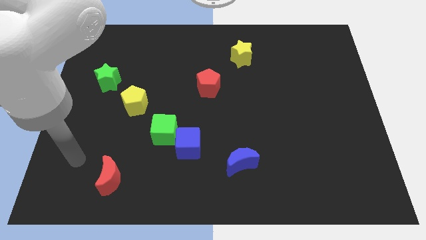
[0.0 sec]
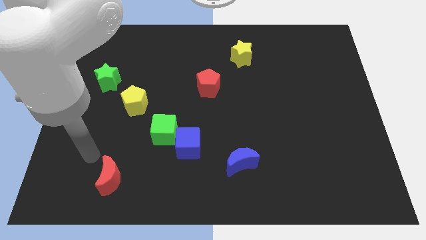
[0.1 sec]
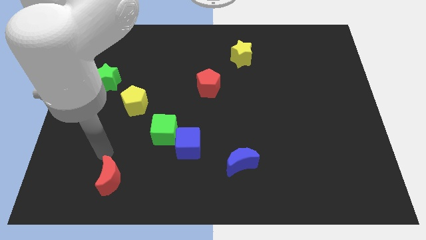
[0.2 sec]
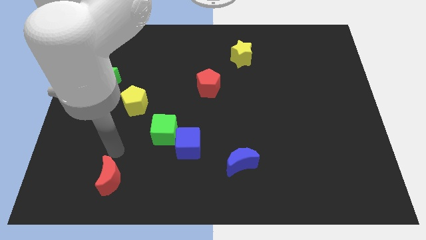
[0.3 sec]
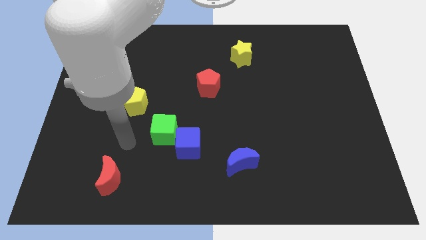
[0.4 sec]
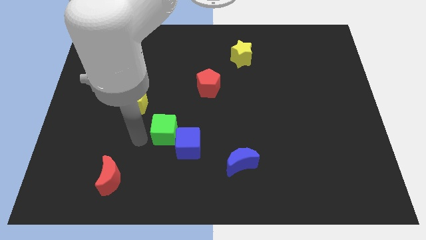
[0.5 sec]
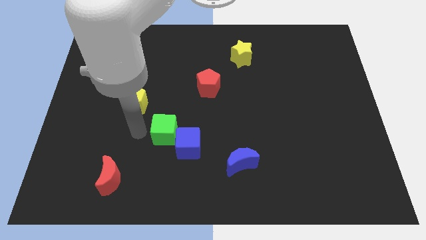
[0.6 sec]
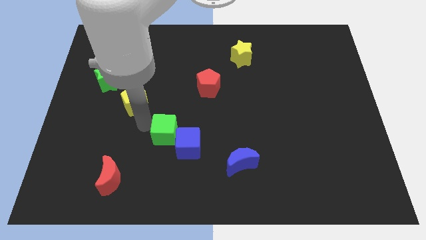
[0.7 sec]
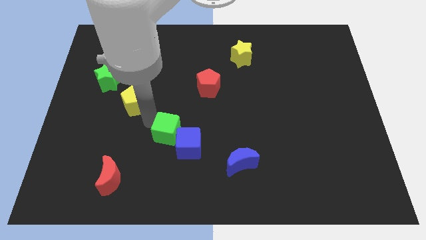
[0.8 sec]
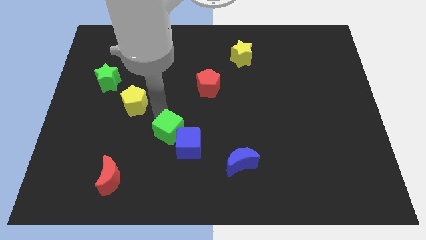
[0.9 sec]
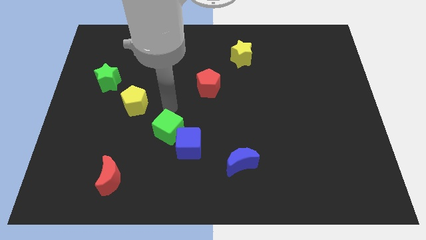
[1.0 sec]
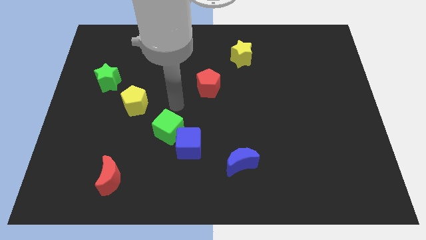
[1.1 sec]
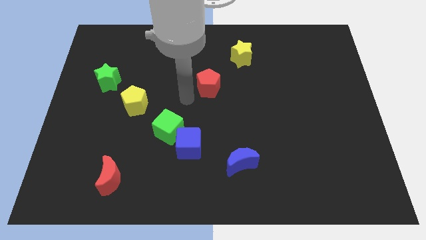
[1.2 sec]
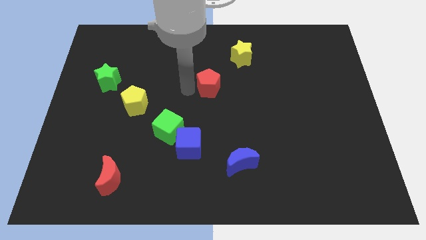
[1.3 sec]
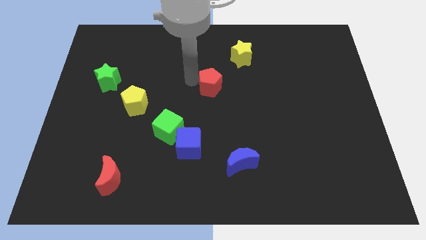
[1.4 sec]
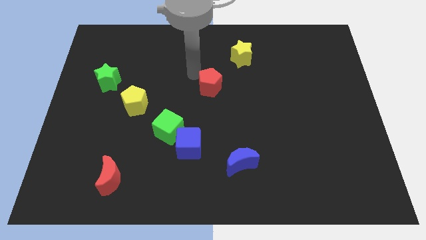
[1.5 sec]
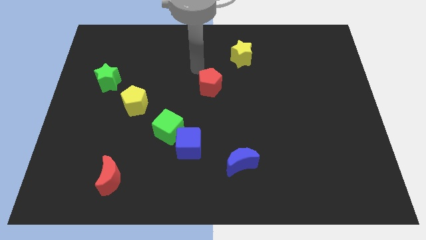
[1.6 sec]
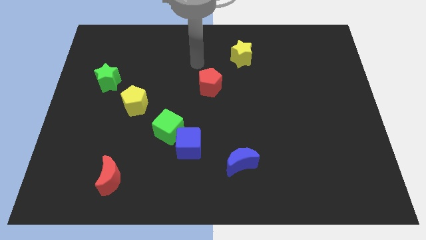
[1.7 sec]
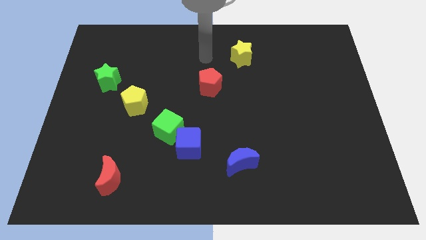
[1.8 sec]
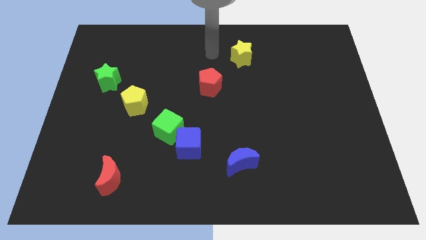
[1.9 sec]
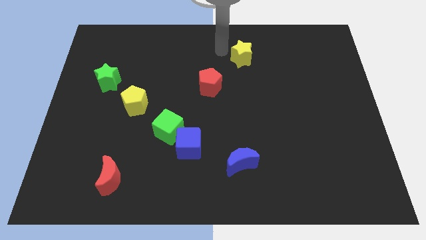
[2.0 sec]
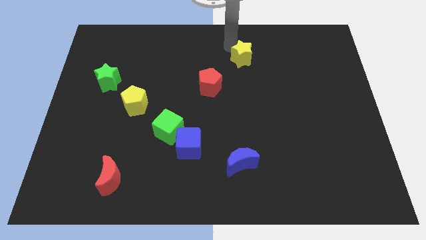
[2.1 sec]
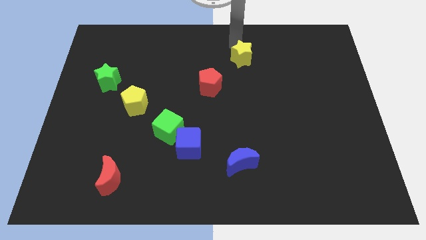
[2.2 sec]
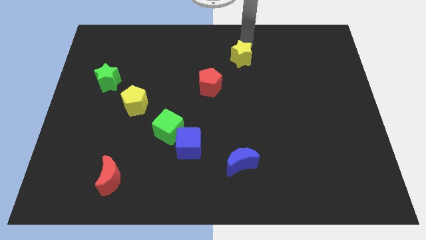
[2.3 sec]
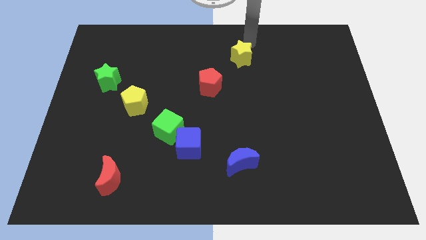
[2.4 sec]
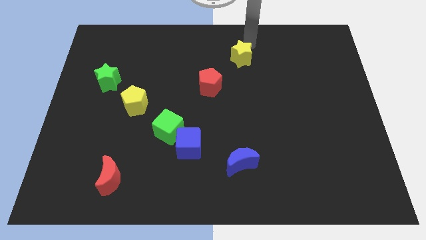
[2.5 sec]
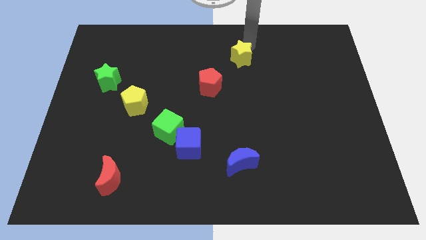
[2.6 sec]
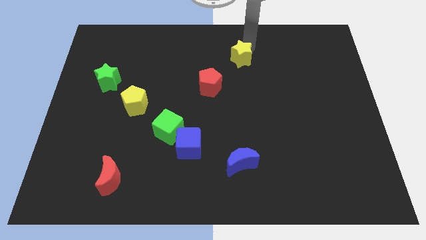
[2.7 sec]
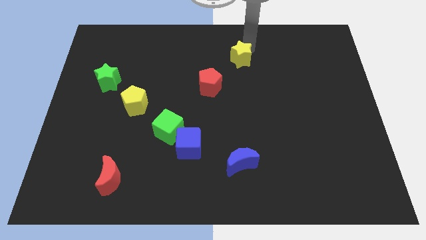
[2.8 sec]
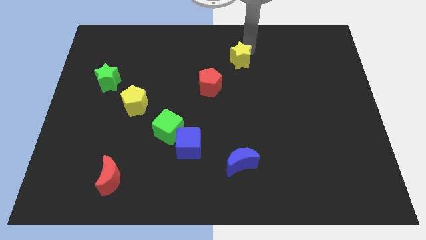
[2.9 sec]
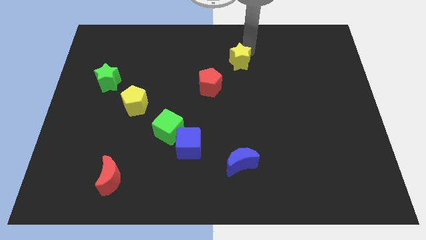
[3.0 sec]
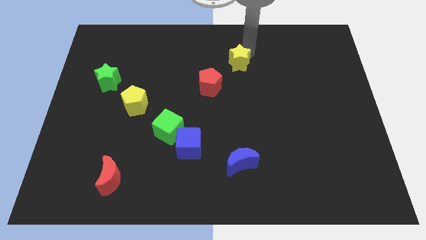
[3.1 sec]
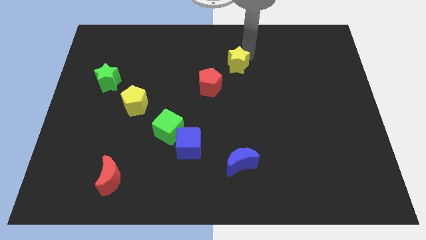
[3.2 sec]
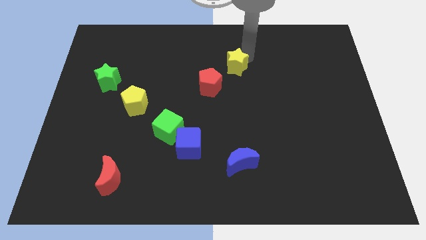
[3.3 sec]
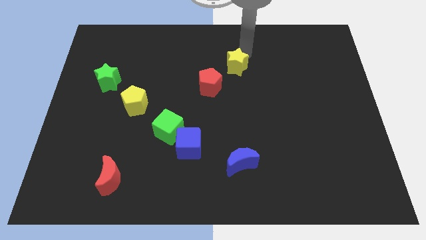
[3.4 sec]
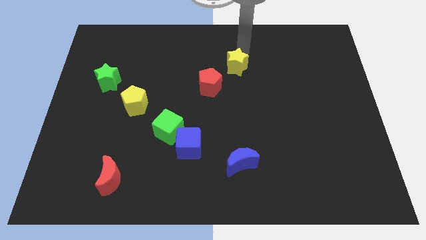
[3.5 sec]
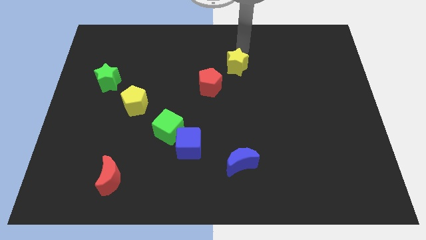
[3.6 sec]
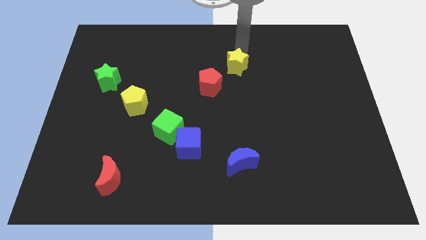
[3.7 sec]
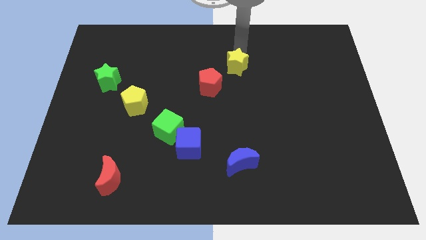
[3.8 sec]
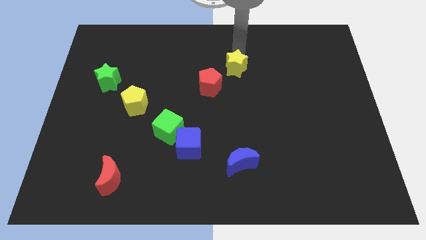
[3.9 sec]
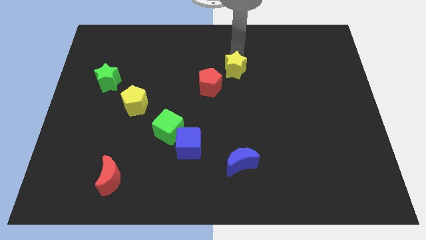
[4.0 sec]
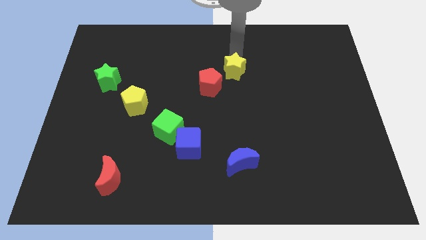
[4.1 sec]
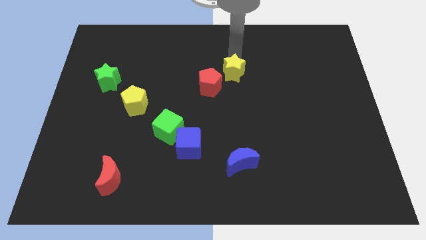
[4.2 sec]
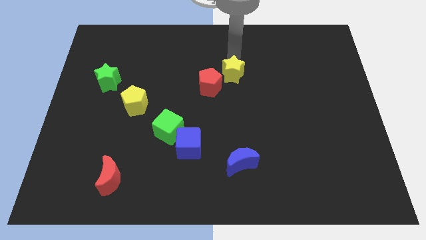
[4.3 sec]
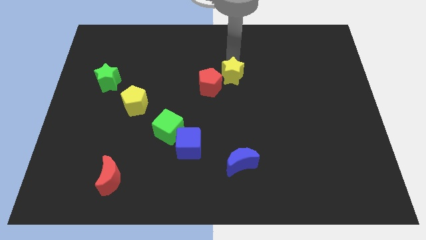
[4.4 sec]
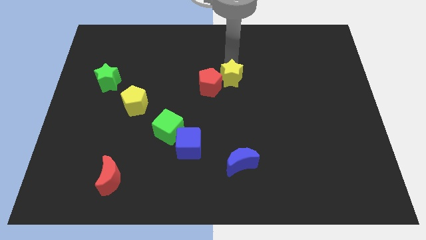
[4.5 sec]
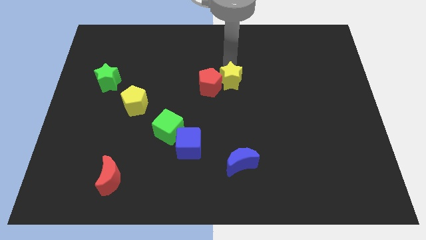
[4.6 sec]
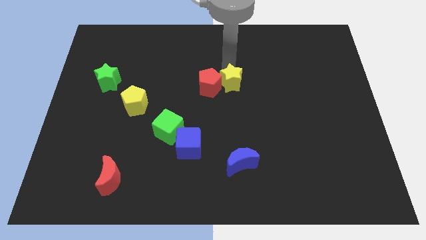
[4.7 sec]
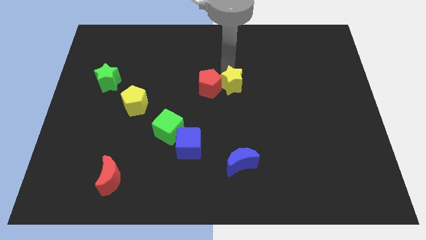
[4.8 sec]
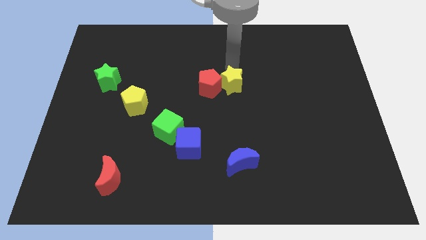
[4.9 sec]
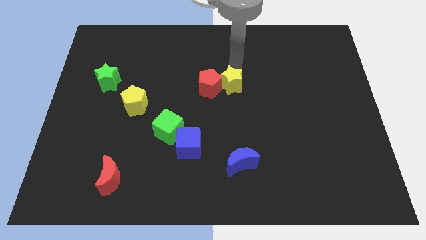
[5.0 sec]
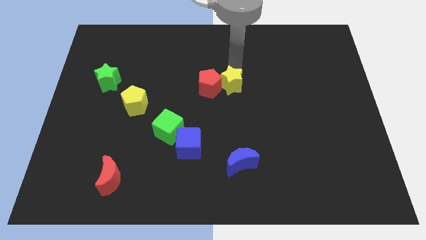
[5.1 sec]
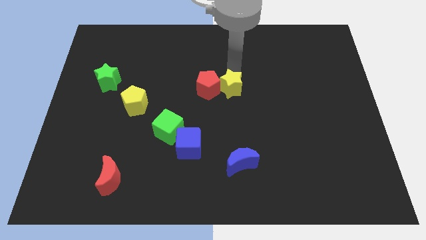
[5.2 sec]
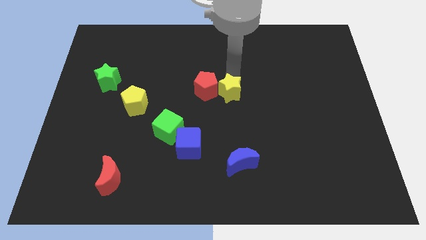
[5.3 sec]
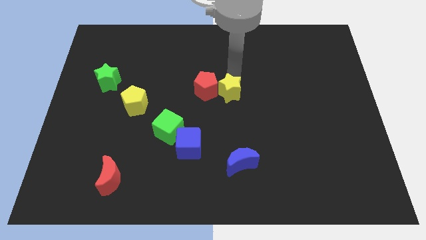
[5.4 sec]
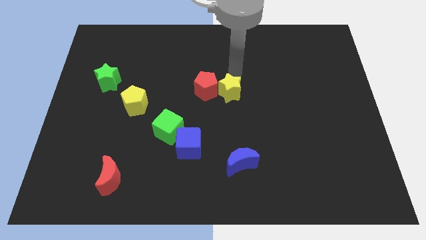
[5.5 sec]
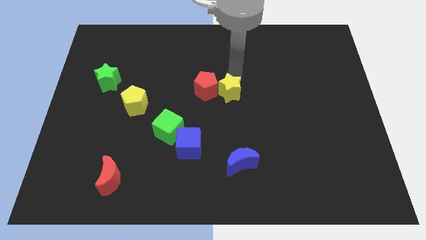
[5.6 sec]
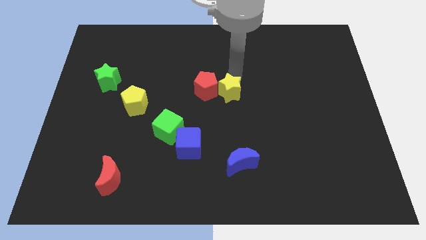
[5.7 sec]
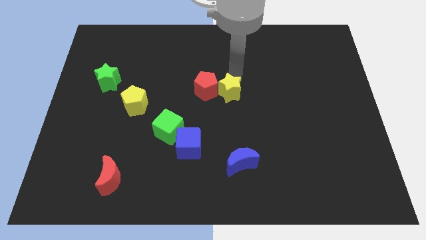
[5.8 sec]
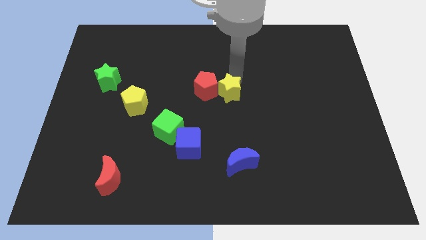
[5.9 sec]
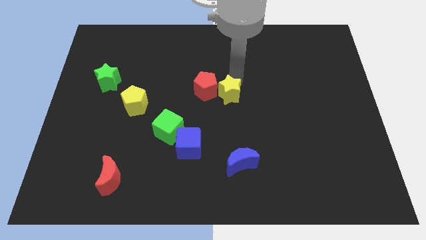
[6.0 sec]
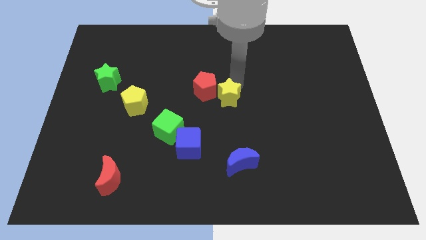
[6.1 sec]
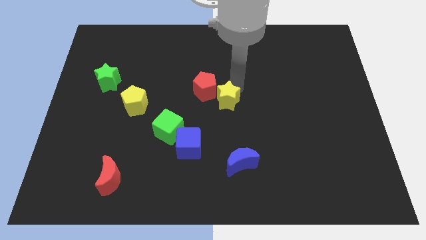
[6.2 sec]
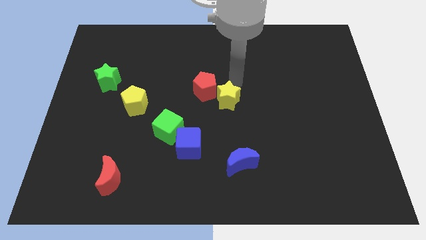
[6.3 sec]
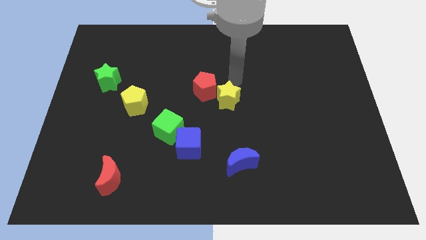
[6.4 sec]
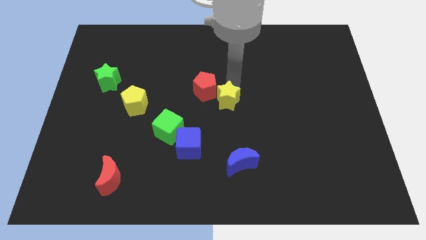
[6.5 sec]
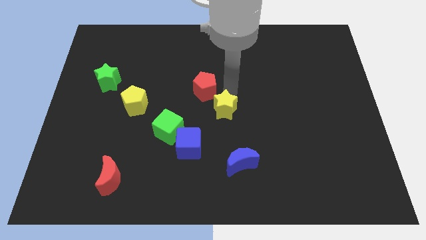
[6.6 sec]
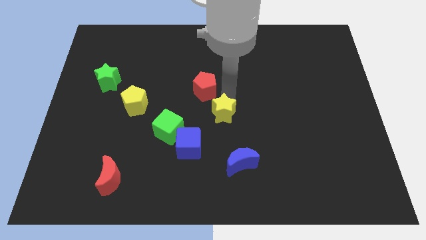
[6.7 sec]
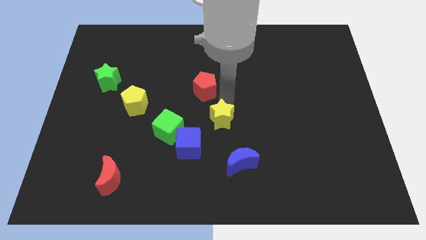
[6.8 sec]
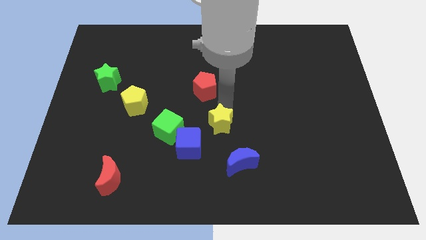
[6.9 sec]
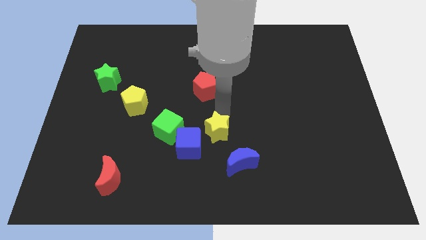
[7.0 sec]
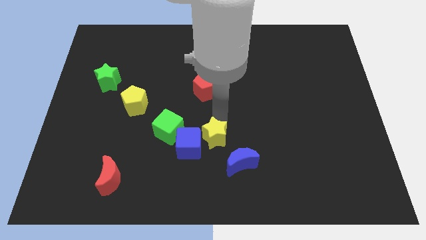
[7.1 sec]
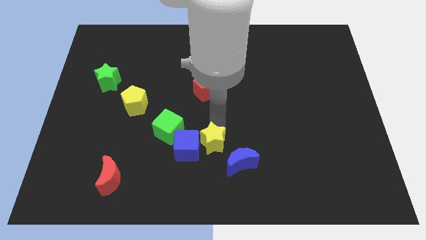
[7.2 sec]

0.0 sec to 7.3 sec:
push the yellow star to the bottom right side of the green cube

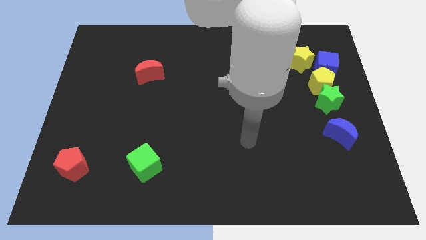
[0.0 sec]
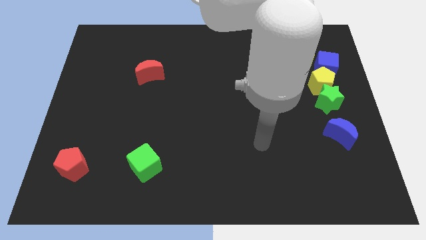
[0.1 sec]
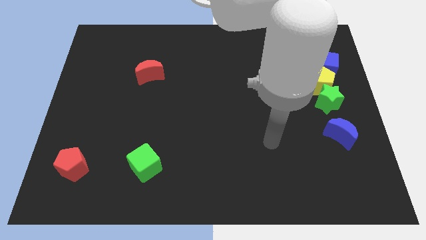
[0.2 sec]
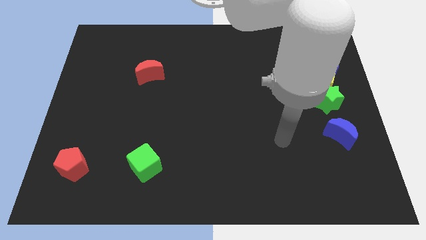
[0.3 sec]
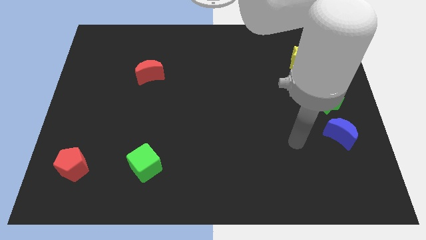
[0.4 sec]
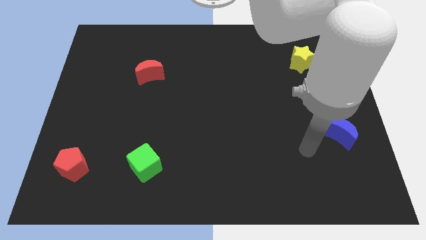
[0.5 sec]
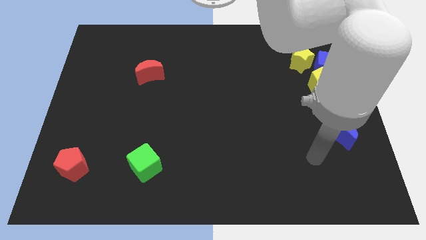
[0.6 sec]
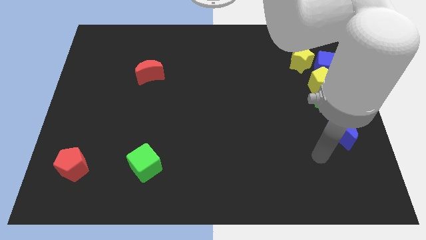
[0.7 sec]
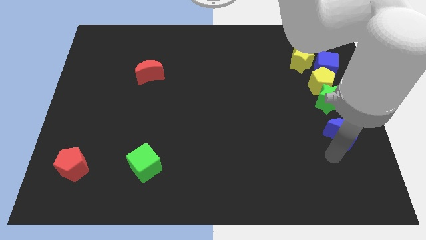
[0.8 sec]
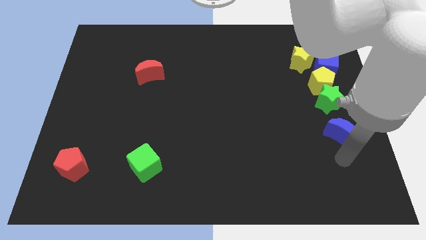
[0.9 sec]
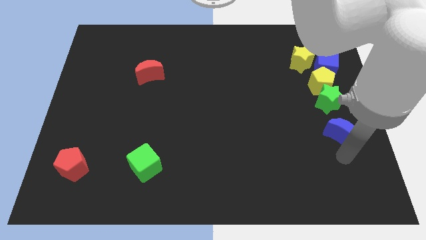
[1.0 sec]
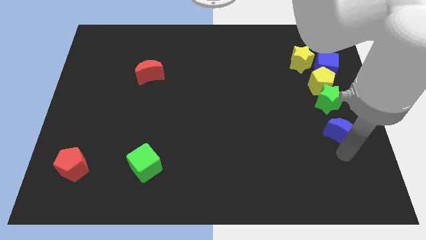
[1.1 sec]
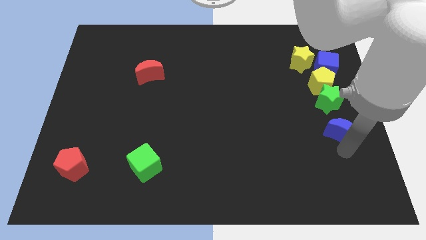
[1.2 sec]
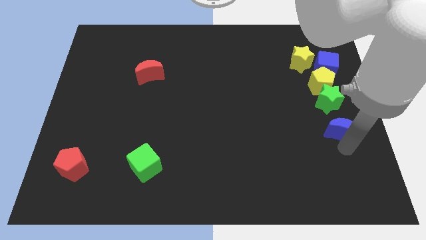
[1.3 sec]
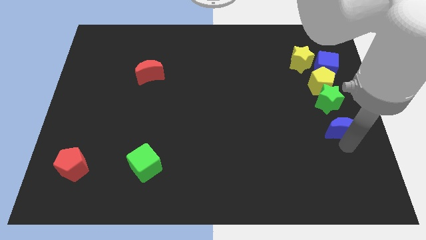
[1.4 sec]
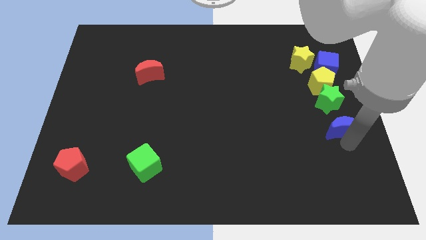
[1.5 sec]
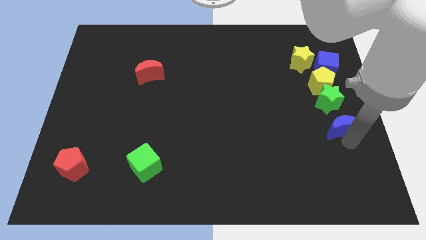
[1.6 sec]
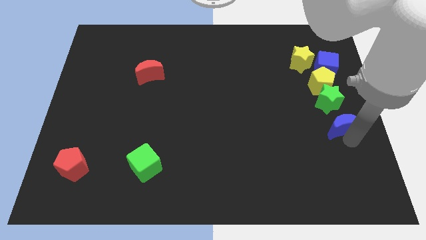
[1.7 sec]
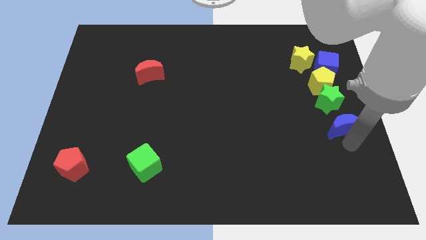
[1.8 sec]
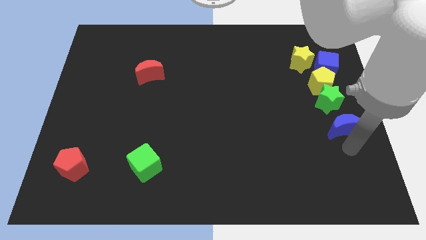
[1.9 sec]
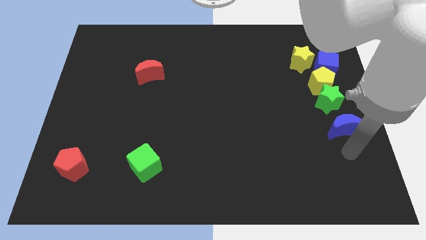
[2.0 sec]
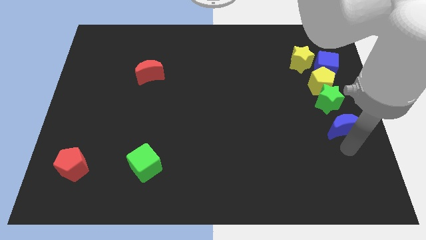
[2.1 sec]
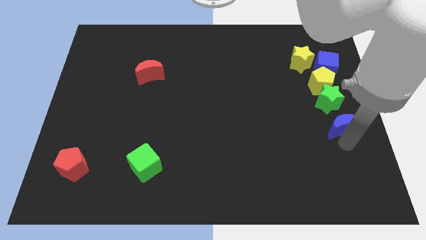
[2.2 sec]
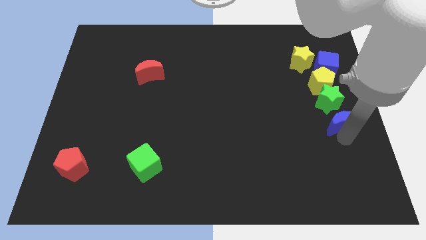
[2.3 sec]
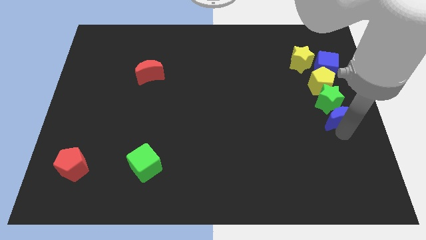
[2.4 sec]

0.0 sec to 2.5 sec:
push the blue moon below the blue cube
